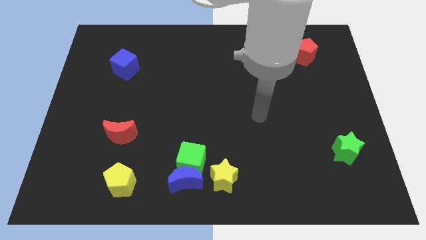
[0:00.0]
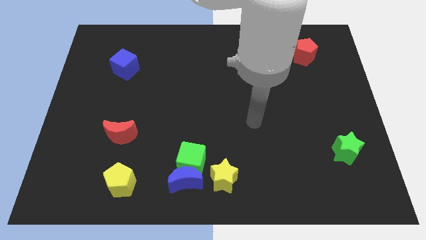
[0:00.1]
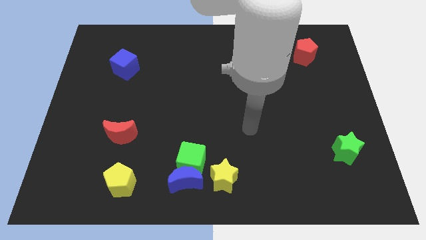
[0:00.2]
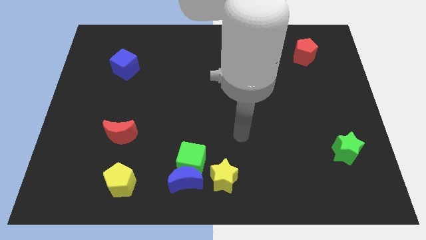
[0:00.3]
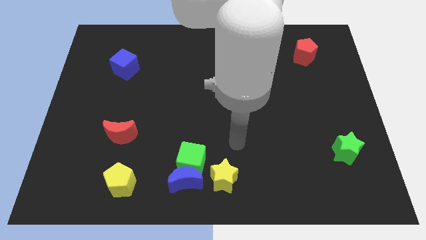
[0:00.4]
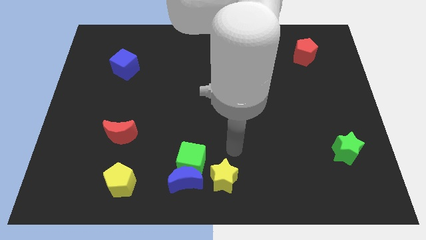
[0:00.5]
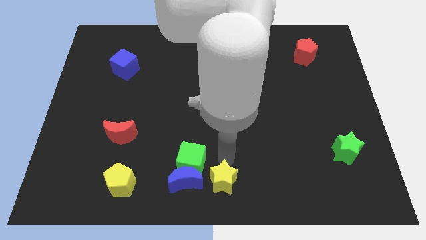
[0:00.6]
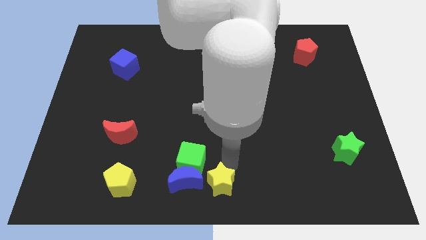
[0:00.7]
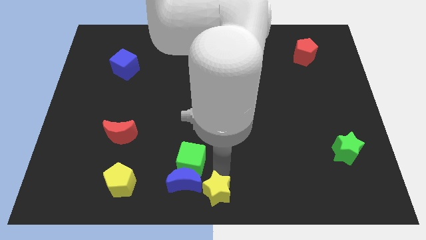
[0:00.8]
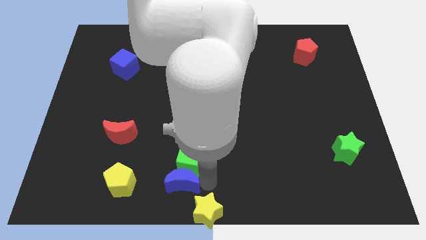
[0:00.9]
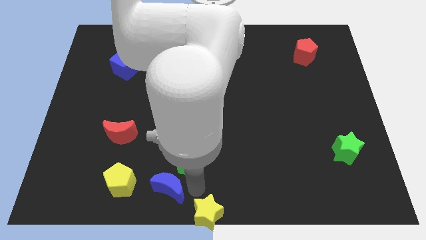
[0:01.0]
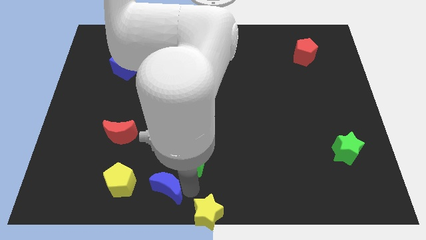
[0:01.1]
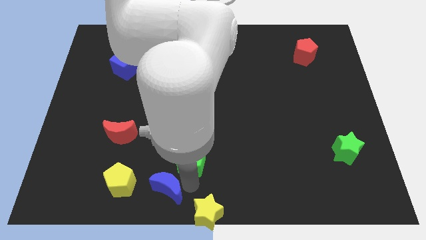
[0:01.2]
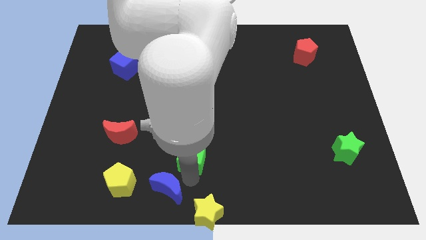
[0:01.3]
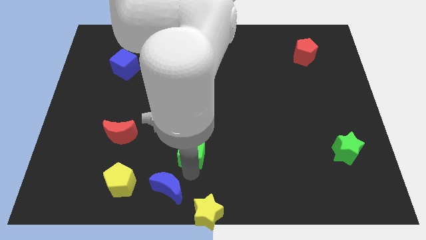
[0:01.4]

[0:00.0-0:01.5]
move the green cube away from the blue moon and yellow star

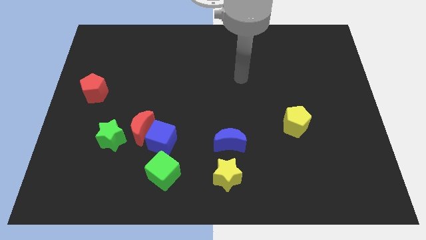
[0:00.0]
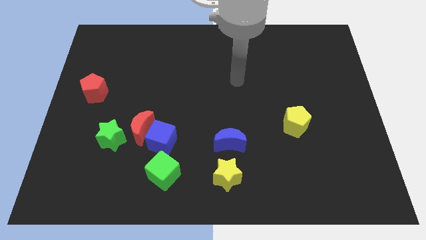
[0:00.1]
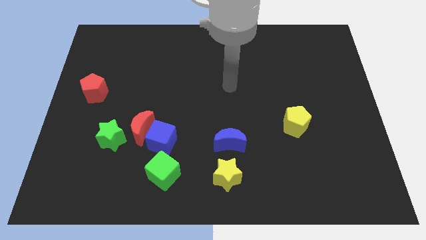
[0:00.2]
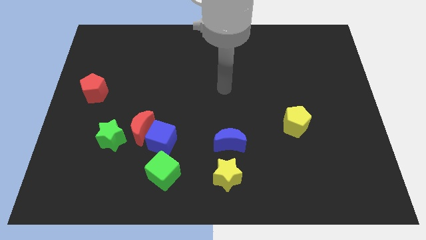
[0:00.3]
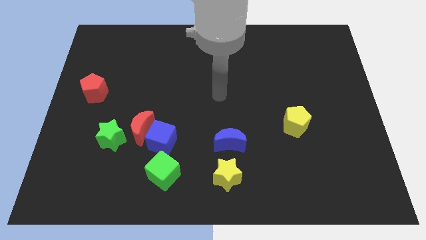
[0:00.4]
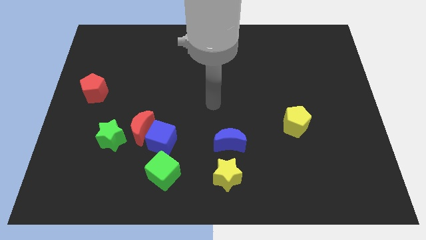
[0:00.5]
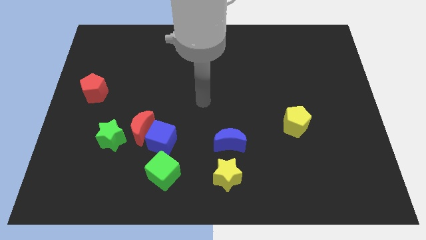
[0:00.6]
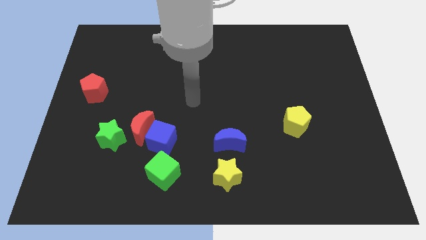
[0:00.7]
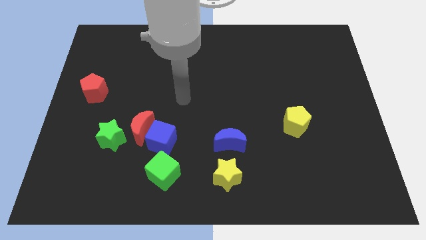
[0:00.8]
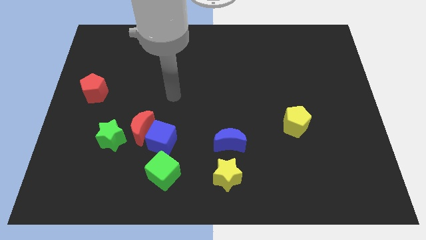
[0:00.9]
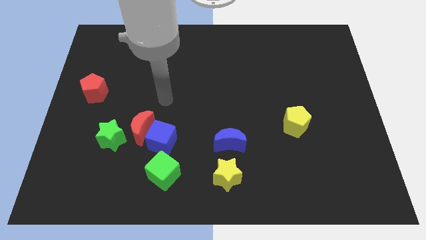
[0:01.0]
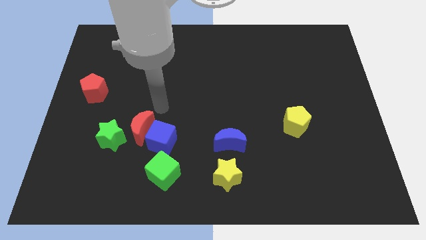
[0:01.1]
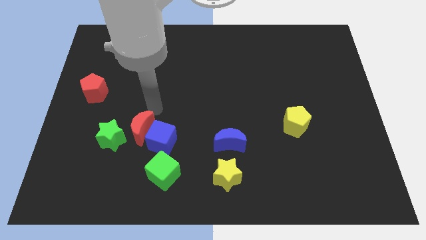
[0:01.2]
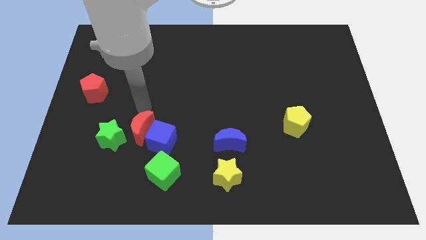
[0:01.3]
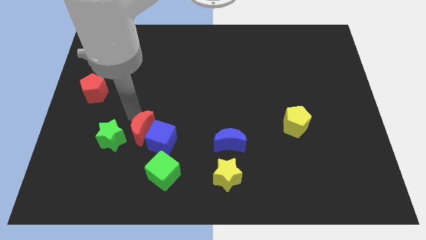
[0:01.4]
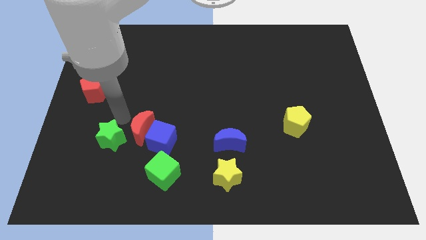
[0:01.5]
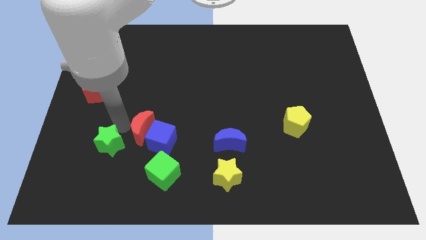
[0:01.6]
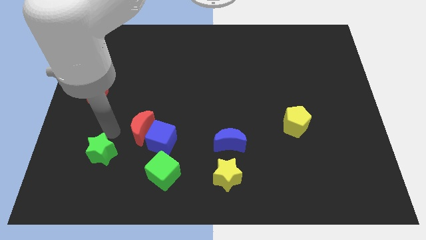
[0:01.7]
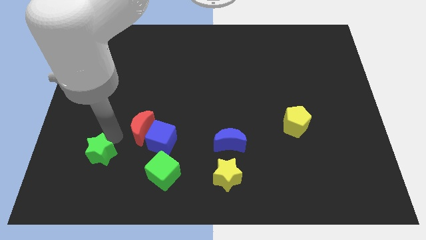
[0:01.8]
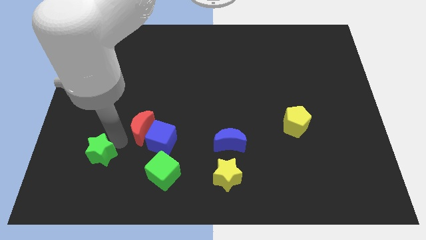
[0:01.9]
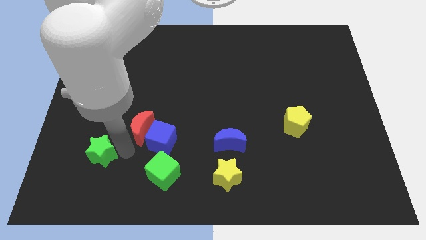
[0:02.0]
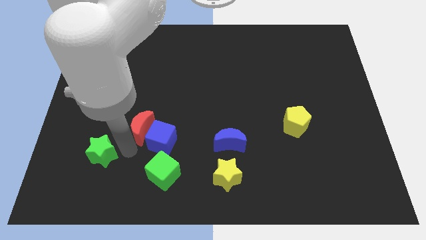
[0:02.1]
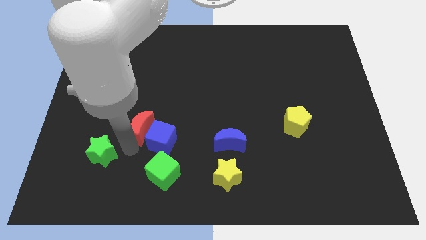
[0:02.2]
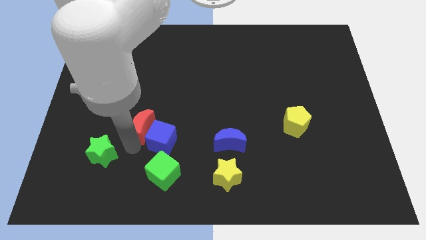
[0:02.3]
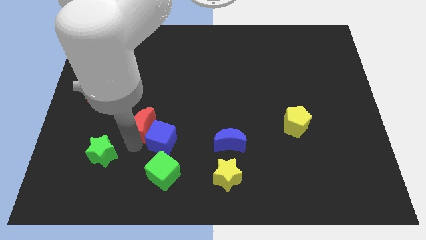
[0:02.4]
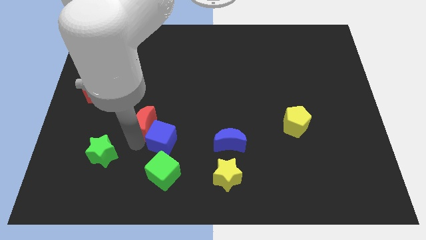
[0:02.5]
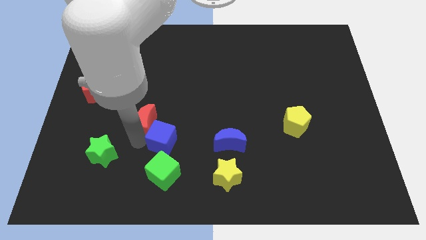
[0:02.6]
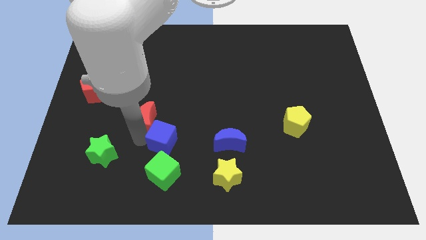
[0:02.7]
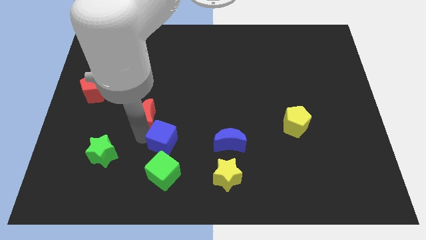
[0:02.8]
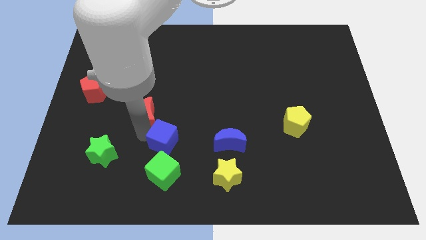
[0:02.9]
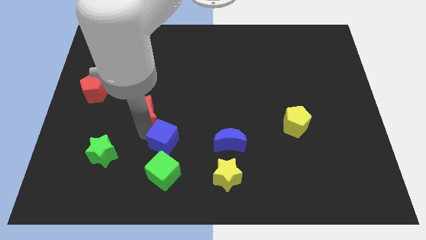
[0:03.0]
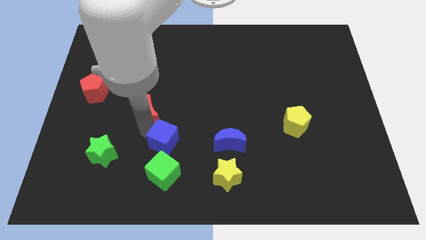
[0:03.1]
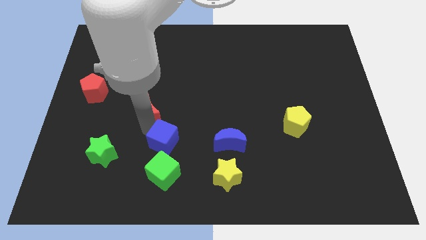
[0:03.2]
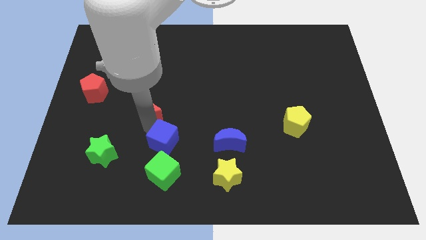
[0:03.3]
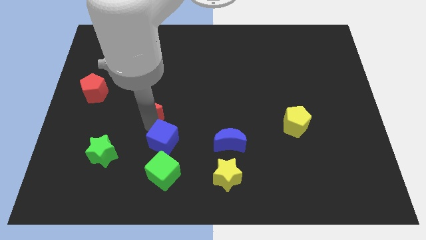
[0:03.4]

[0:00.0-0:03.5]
separate the red moon from the blue cube and green star

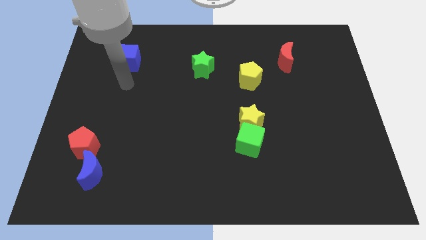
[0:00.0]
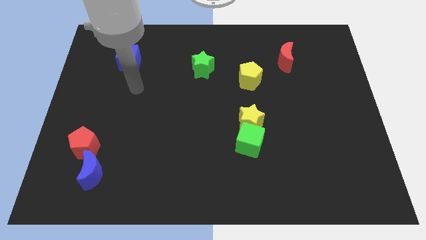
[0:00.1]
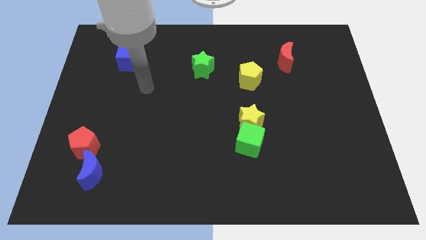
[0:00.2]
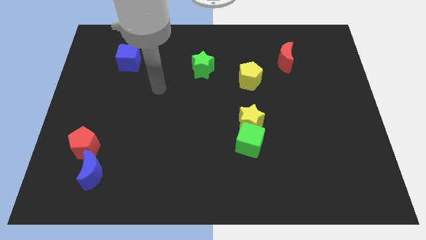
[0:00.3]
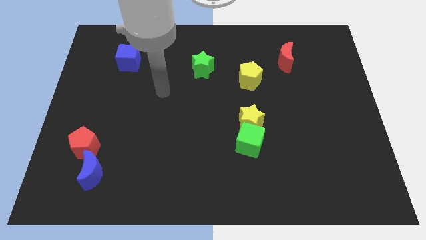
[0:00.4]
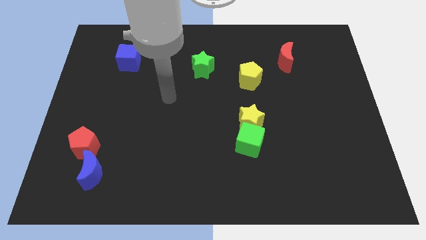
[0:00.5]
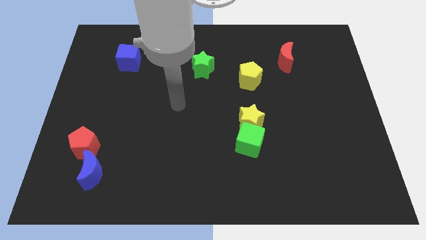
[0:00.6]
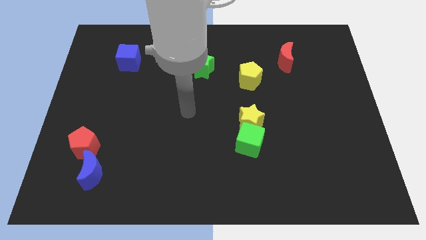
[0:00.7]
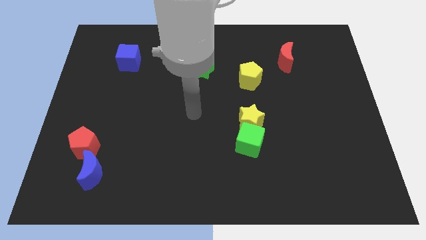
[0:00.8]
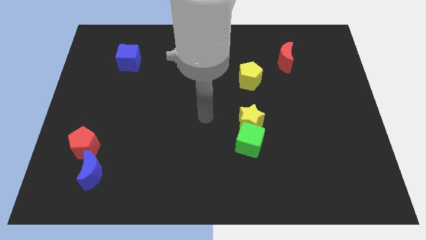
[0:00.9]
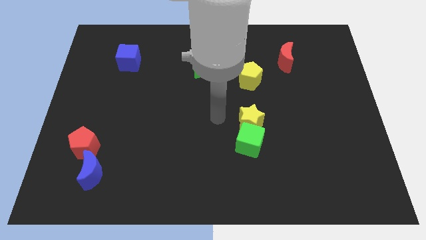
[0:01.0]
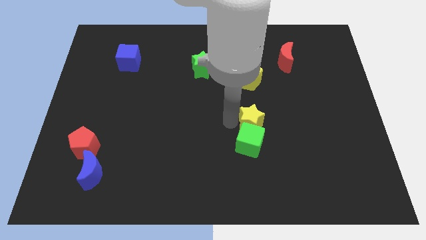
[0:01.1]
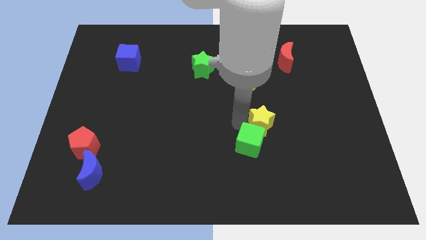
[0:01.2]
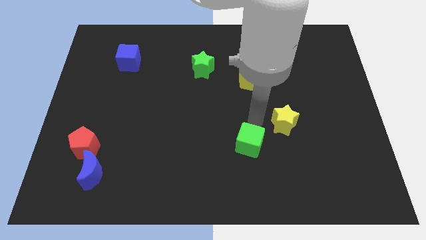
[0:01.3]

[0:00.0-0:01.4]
pull the green cube apart from the yellow star

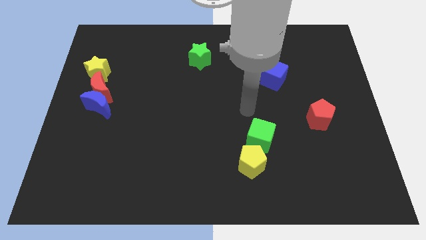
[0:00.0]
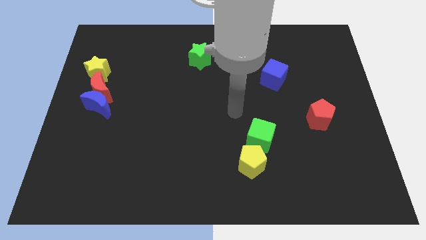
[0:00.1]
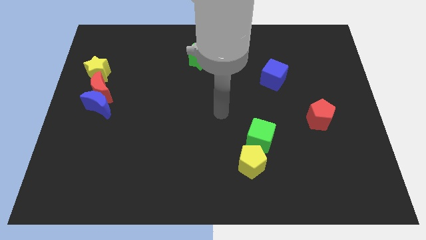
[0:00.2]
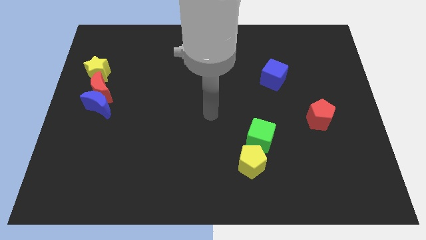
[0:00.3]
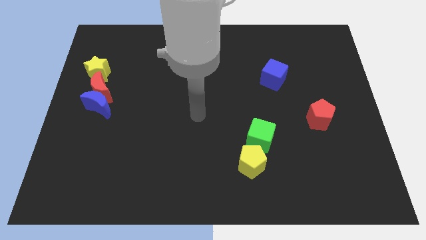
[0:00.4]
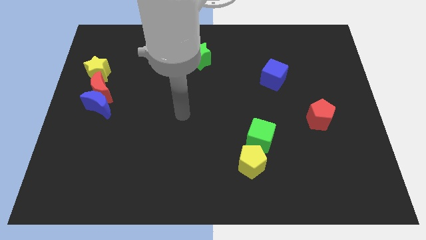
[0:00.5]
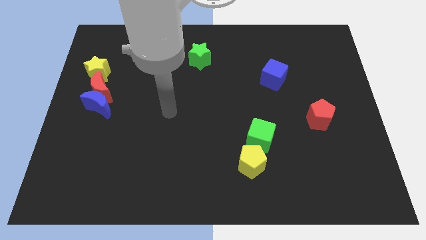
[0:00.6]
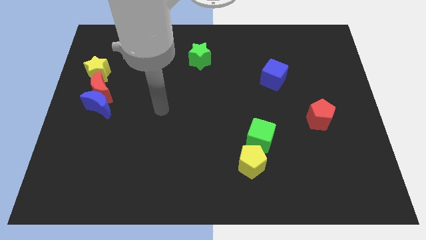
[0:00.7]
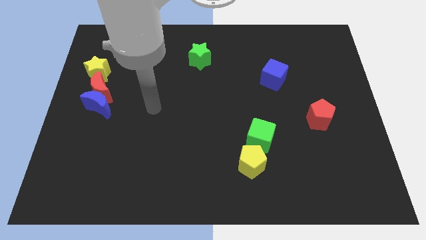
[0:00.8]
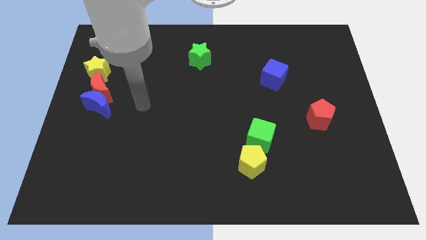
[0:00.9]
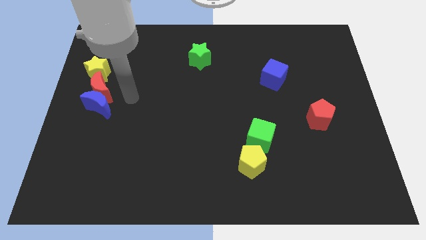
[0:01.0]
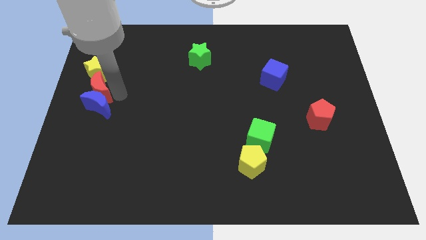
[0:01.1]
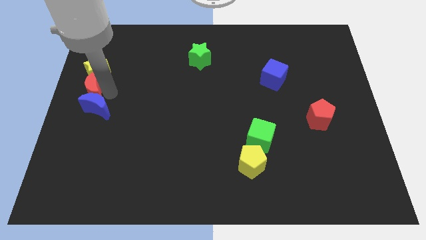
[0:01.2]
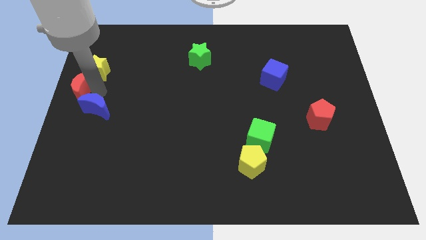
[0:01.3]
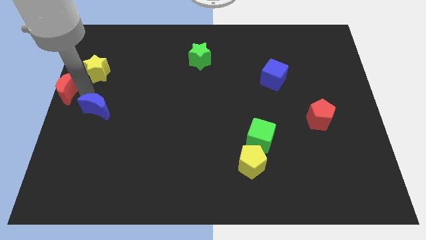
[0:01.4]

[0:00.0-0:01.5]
move the blue moon away from the red moon

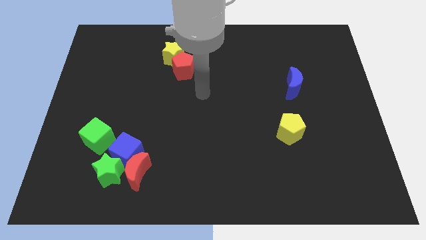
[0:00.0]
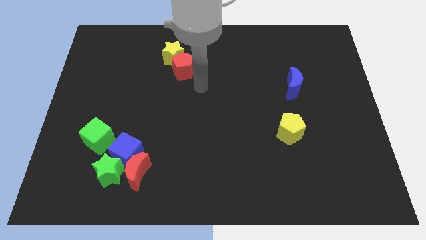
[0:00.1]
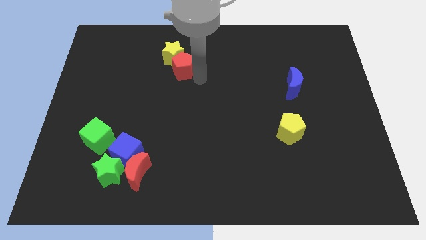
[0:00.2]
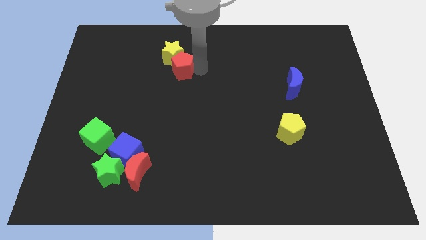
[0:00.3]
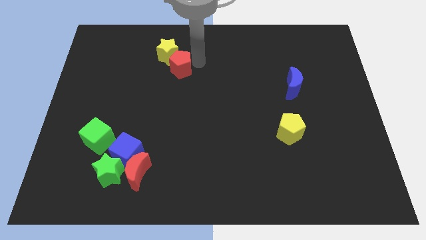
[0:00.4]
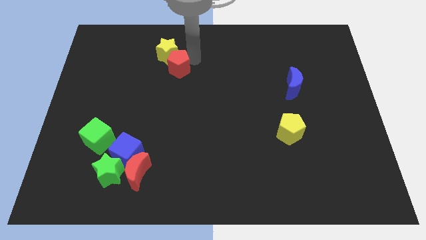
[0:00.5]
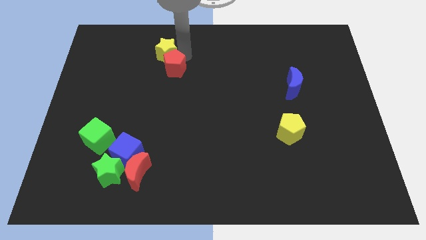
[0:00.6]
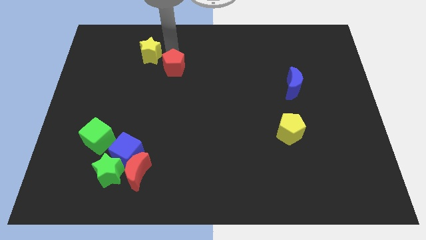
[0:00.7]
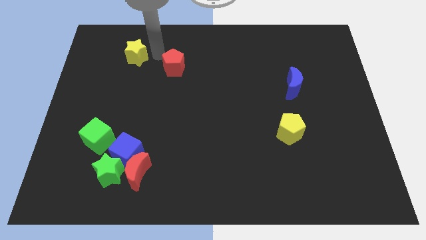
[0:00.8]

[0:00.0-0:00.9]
pull the red pentagon apart from the yellow star

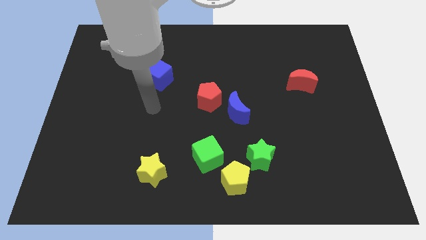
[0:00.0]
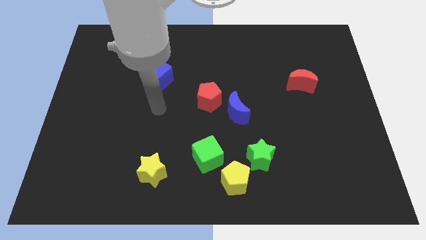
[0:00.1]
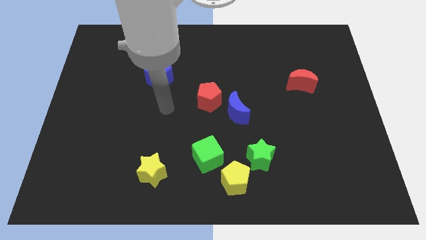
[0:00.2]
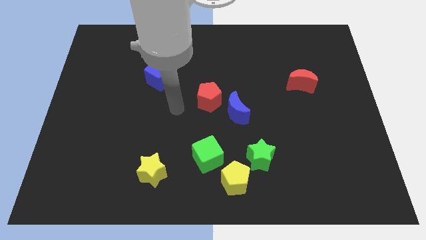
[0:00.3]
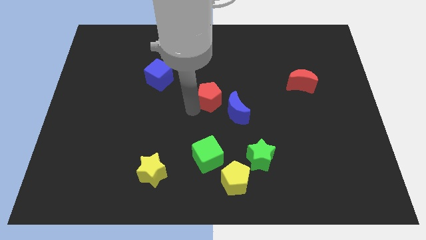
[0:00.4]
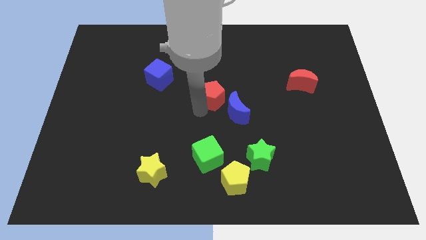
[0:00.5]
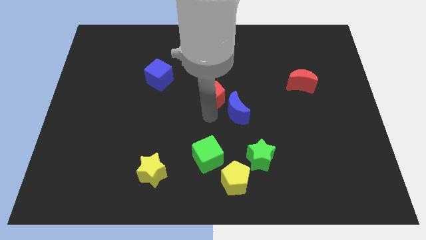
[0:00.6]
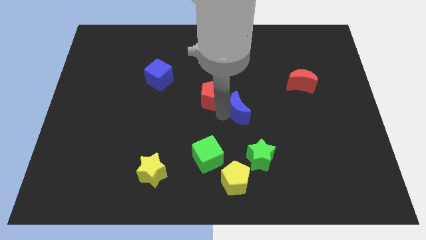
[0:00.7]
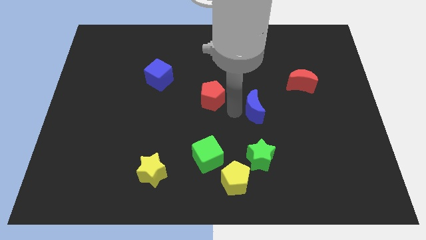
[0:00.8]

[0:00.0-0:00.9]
move the red pentagon away from the blue moon
